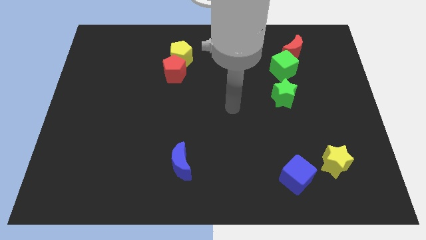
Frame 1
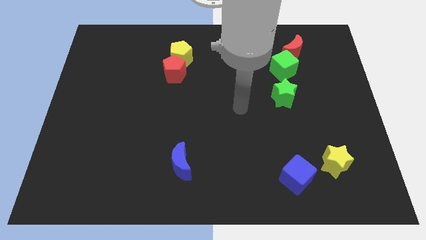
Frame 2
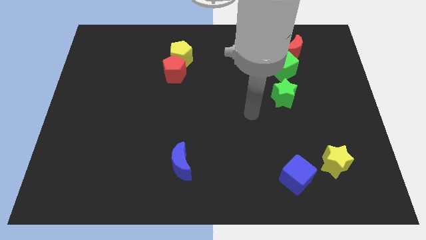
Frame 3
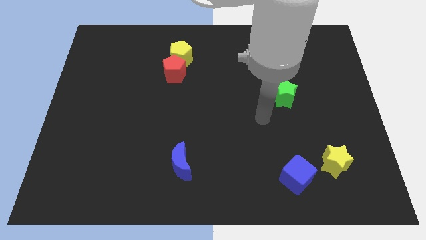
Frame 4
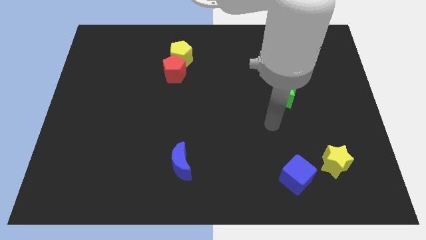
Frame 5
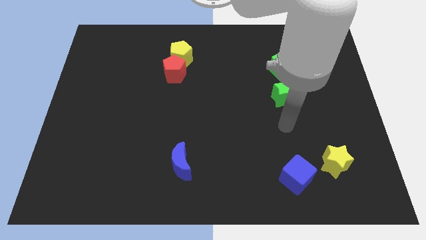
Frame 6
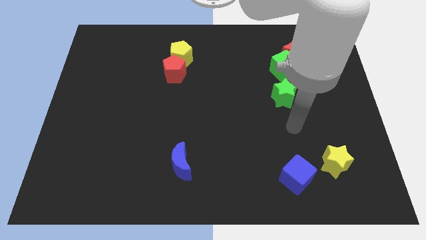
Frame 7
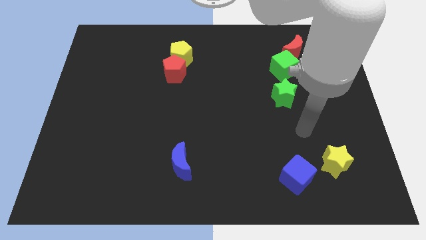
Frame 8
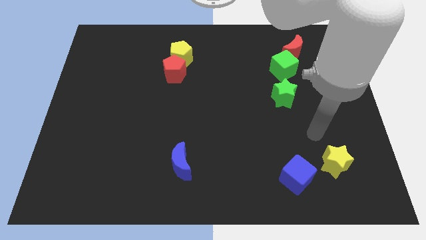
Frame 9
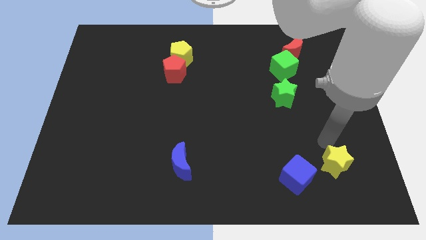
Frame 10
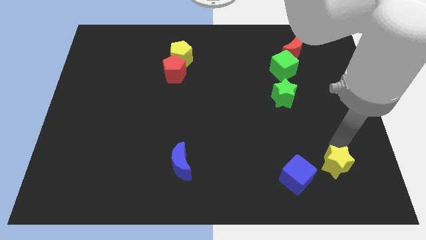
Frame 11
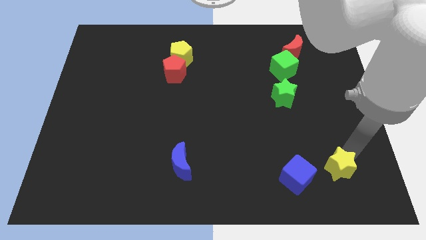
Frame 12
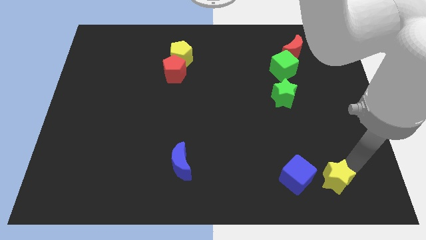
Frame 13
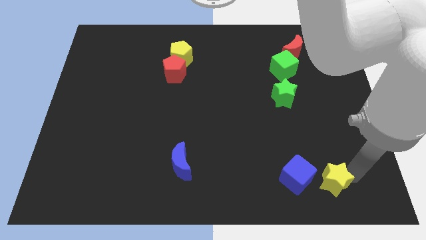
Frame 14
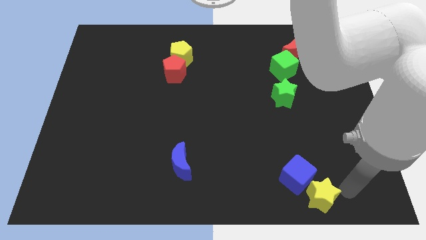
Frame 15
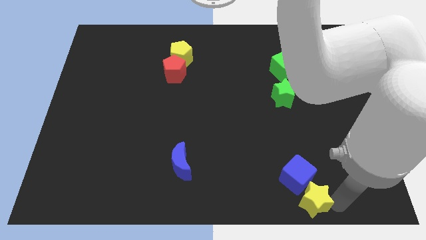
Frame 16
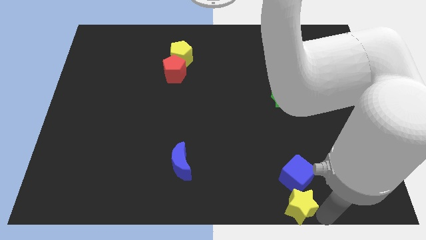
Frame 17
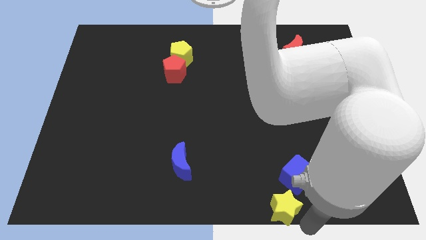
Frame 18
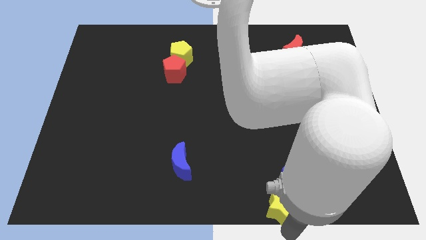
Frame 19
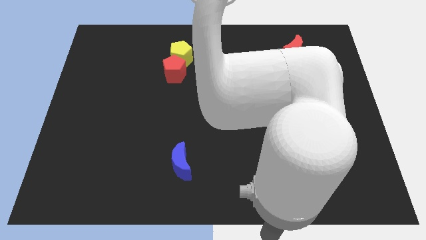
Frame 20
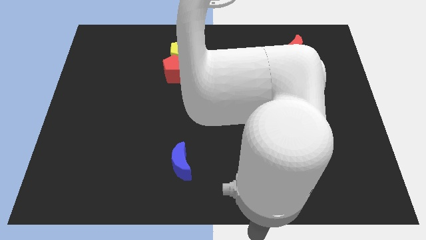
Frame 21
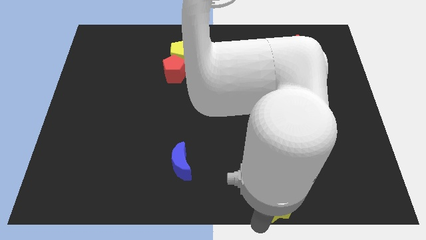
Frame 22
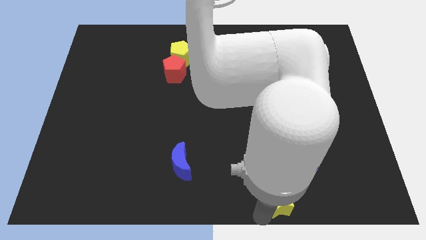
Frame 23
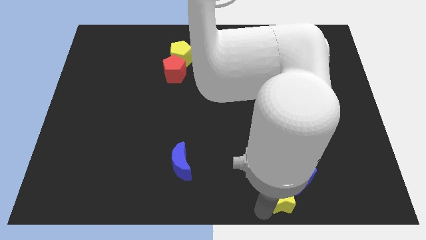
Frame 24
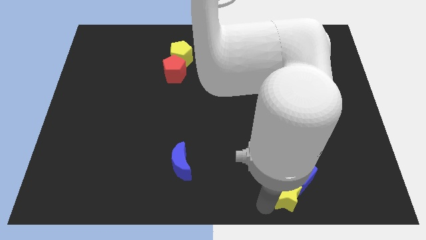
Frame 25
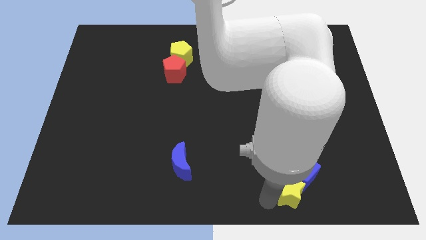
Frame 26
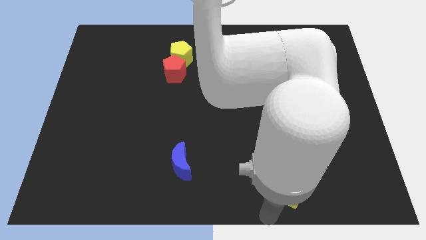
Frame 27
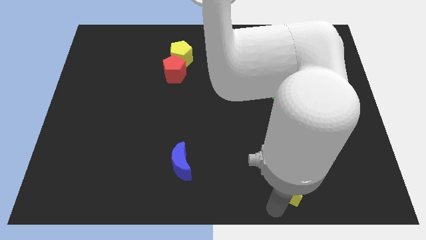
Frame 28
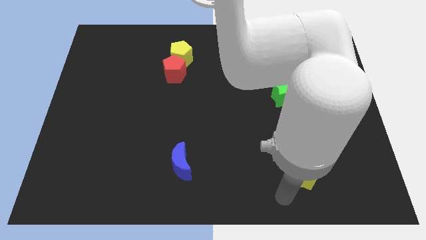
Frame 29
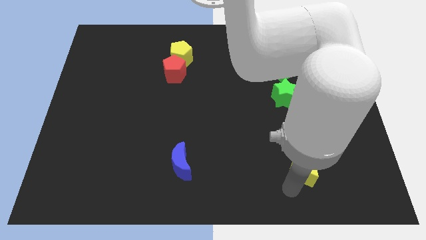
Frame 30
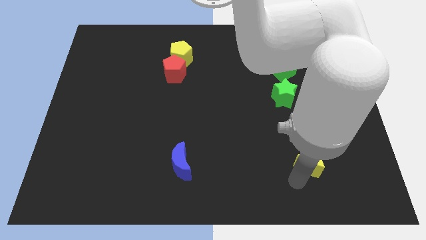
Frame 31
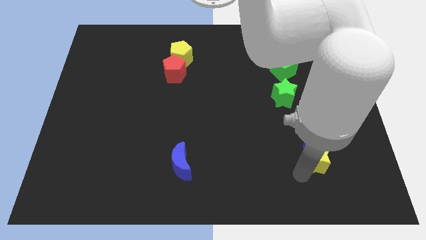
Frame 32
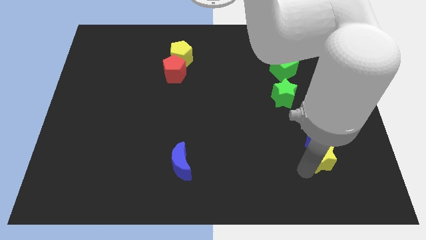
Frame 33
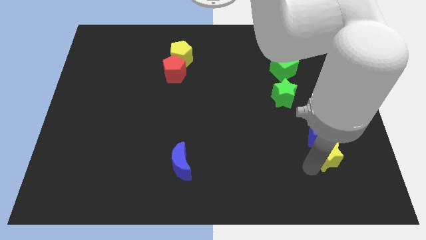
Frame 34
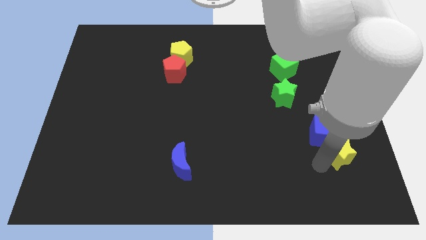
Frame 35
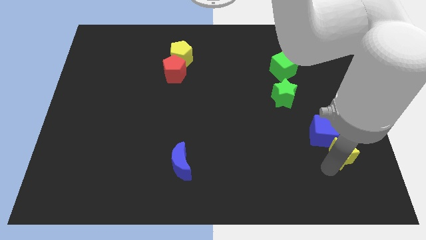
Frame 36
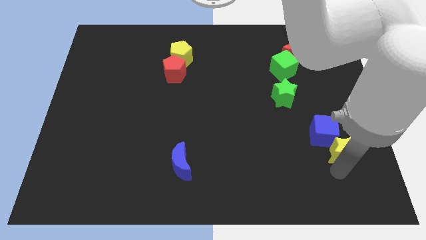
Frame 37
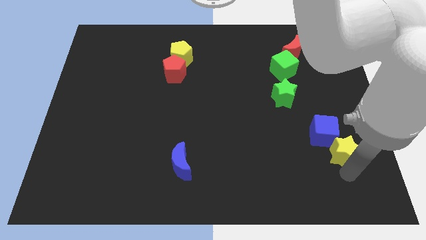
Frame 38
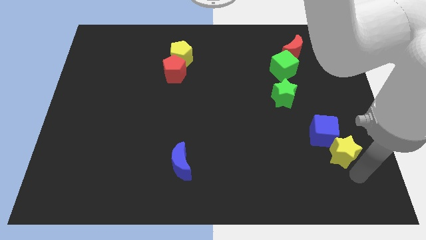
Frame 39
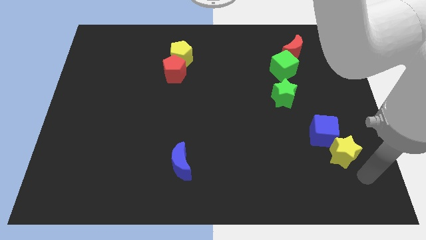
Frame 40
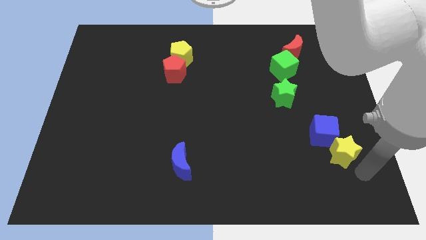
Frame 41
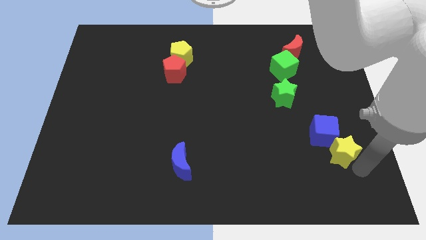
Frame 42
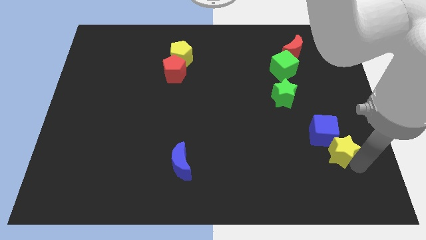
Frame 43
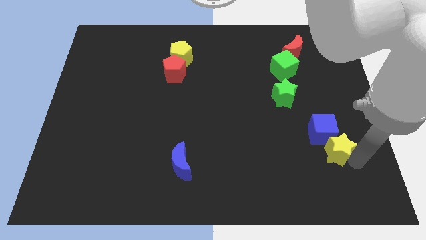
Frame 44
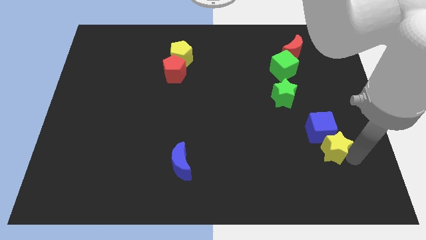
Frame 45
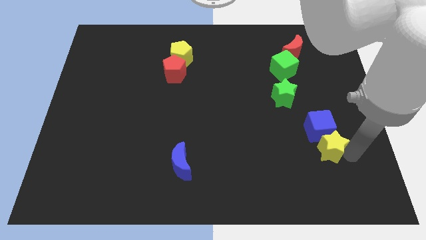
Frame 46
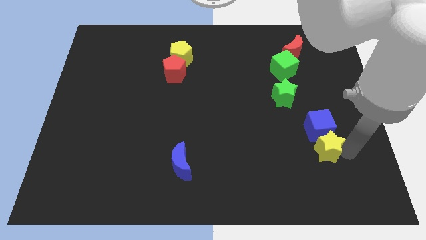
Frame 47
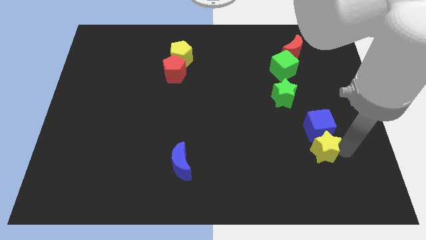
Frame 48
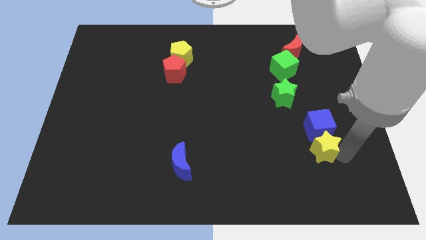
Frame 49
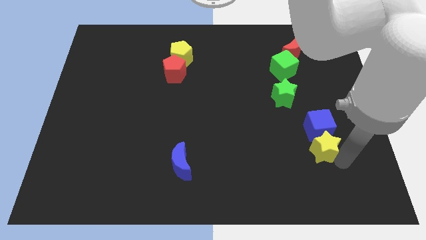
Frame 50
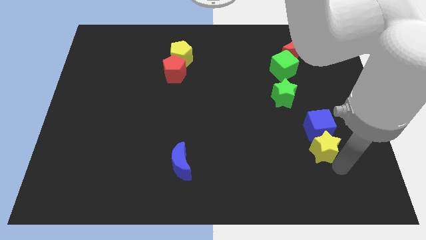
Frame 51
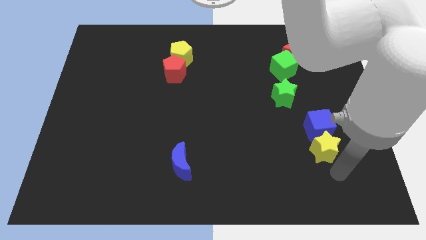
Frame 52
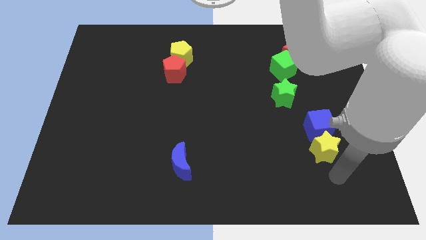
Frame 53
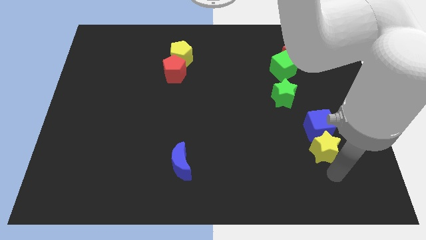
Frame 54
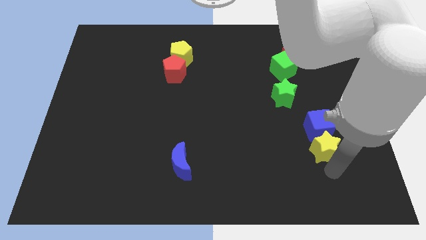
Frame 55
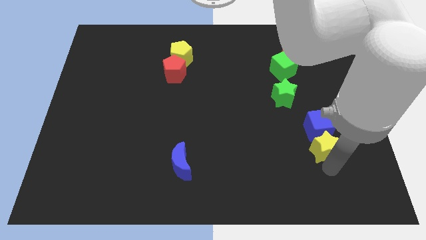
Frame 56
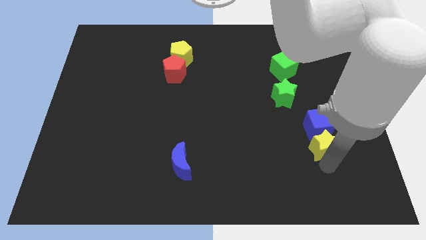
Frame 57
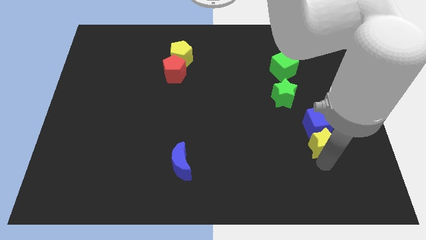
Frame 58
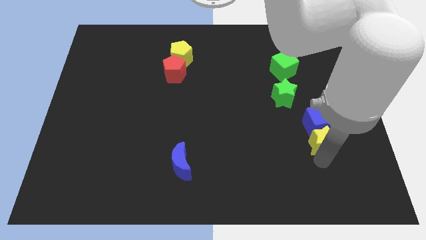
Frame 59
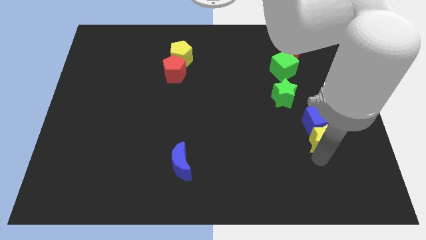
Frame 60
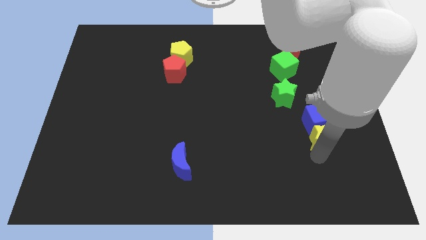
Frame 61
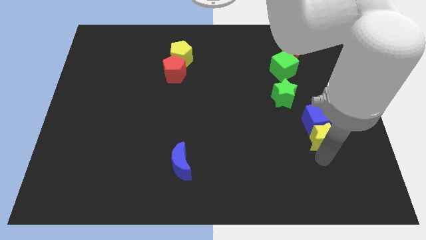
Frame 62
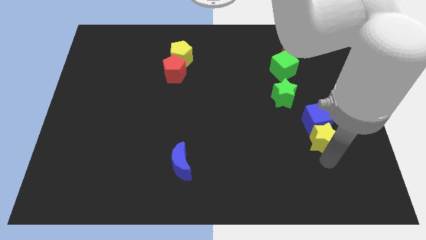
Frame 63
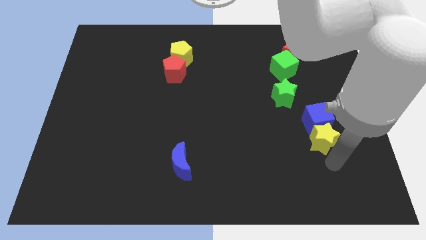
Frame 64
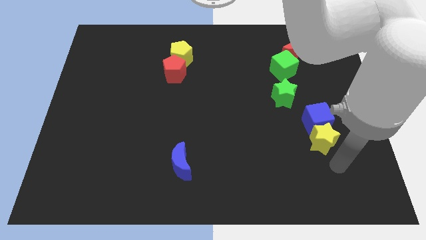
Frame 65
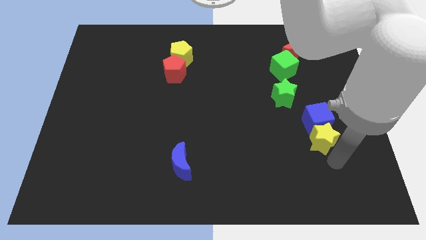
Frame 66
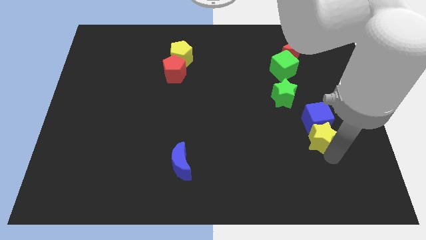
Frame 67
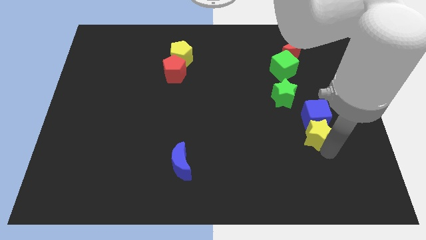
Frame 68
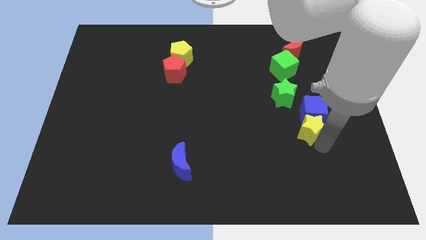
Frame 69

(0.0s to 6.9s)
move the yellow star to the bottom right side of the green star

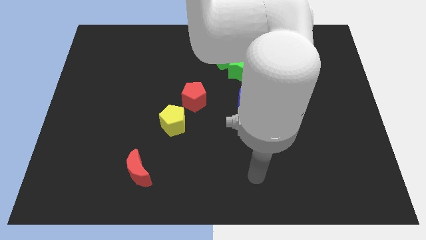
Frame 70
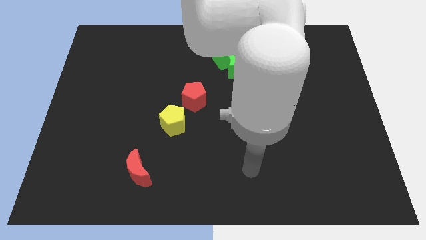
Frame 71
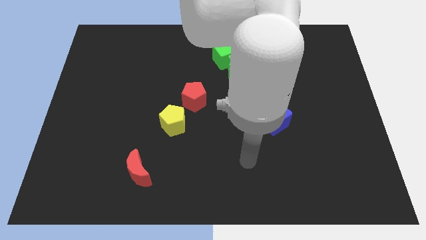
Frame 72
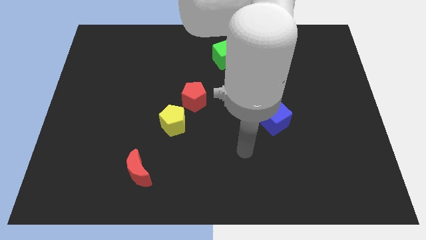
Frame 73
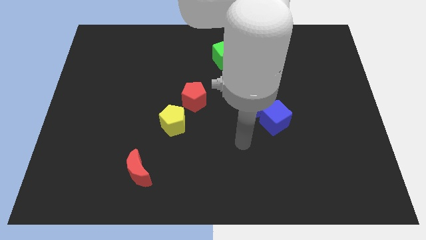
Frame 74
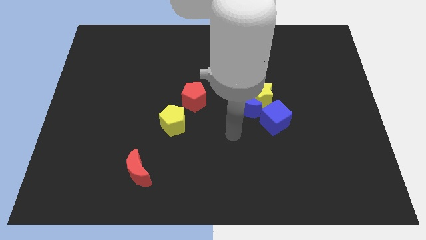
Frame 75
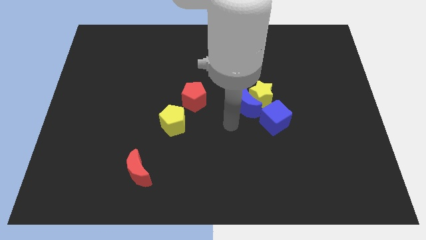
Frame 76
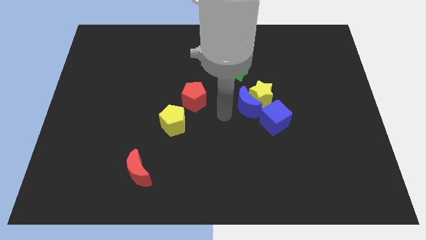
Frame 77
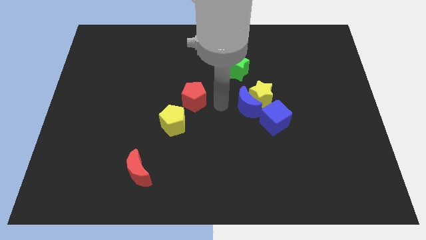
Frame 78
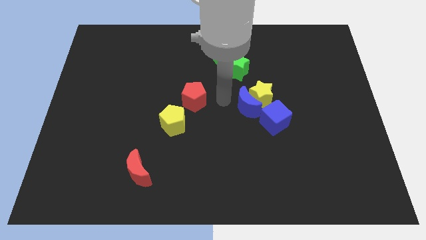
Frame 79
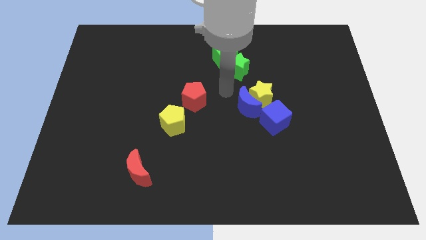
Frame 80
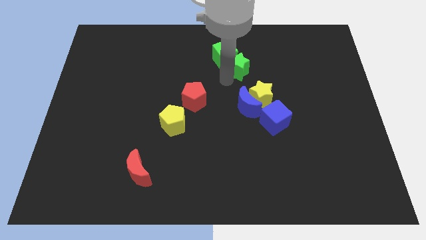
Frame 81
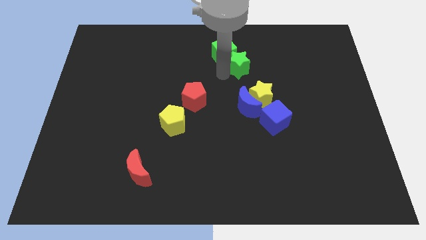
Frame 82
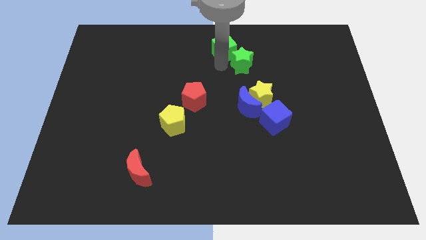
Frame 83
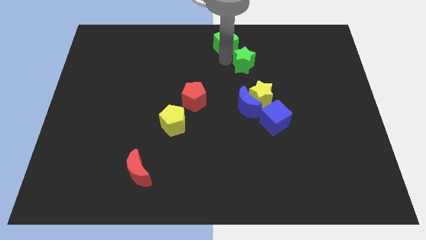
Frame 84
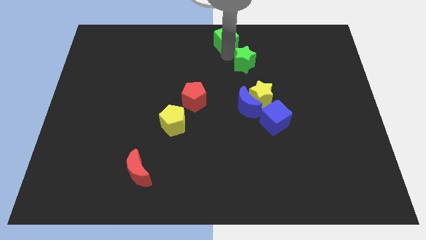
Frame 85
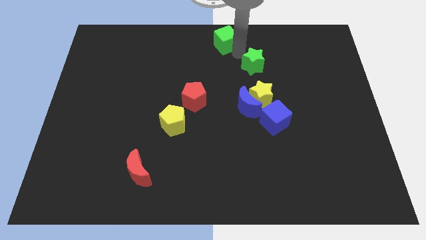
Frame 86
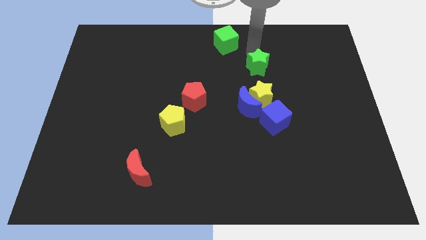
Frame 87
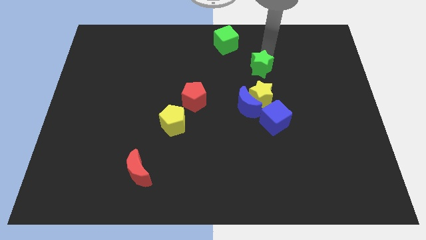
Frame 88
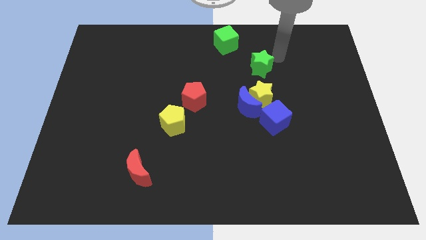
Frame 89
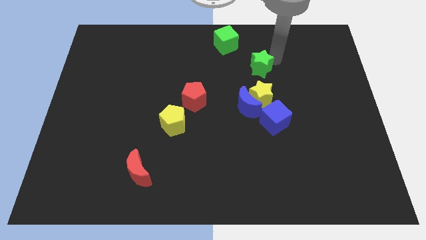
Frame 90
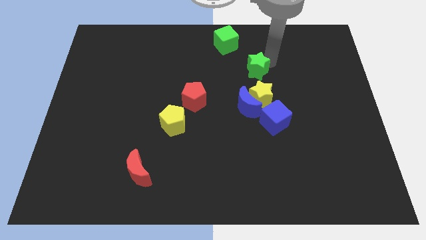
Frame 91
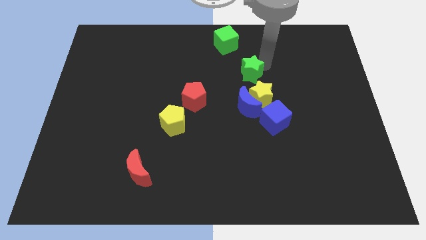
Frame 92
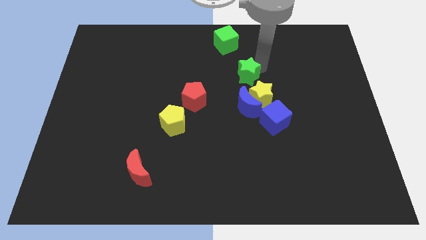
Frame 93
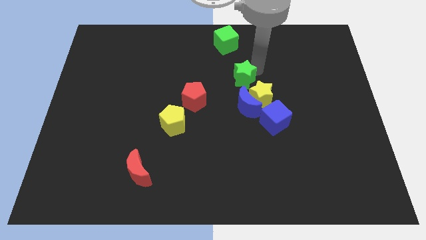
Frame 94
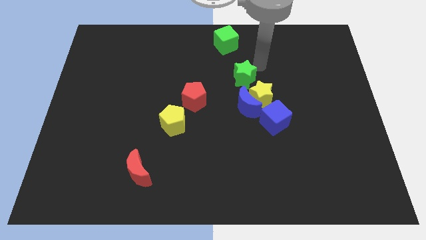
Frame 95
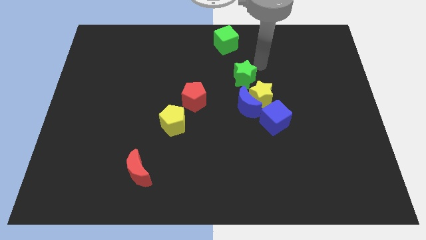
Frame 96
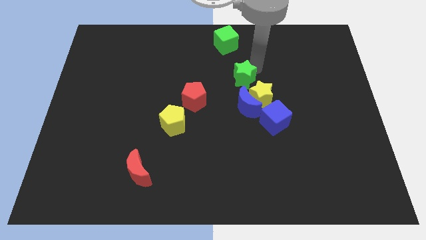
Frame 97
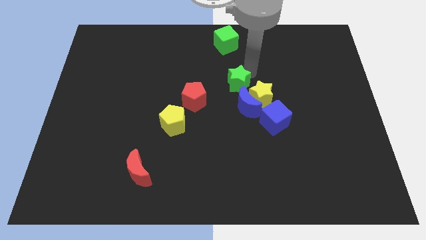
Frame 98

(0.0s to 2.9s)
push the green star to the left side of the yellow star
